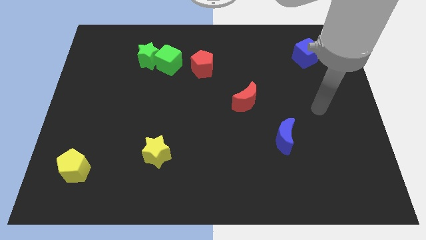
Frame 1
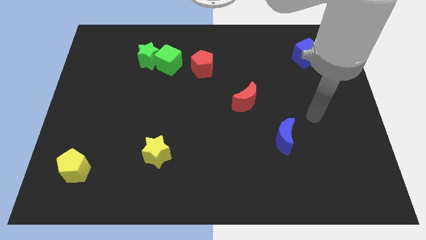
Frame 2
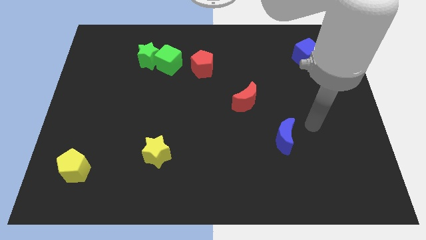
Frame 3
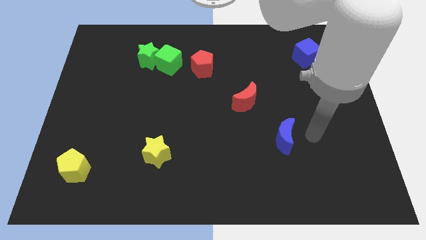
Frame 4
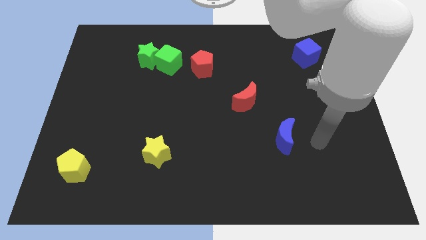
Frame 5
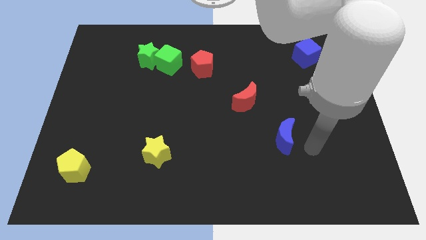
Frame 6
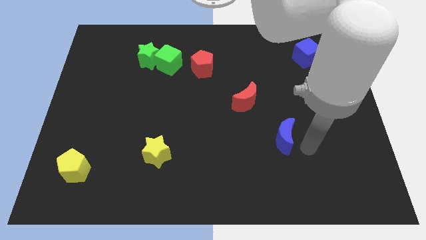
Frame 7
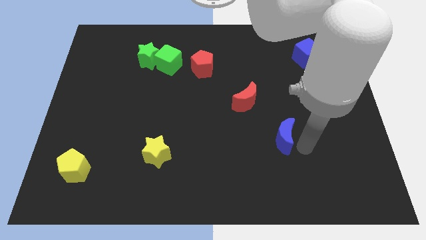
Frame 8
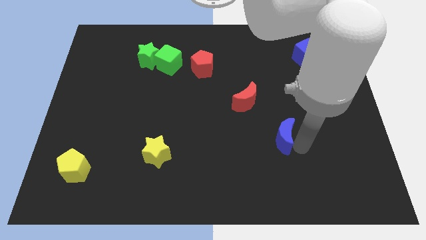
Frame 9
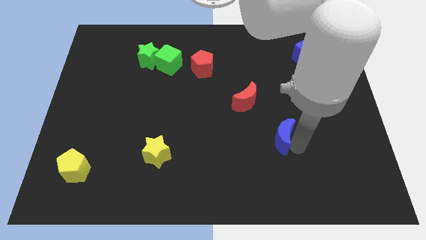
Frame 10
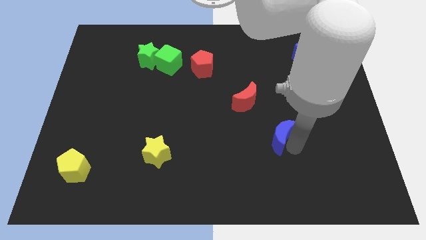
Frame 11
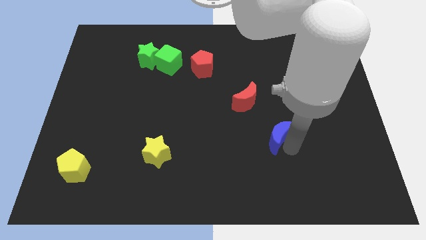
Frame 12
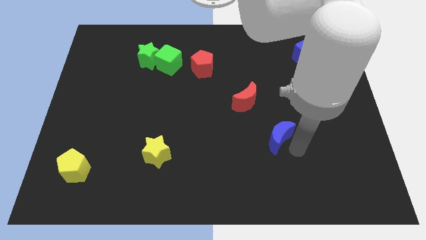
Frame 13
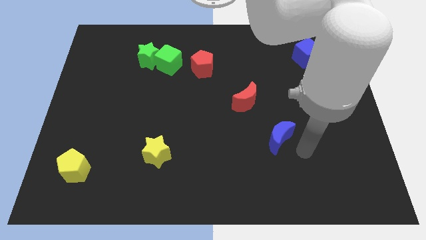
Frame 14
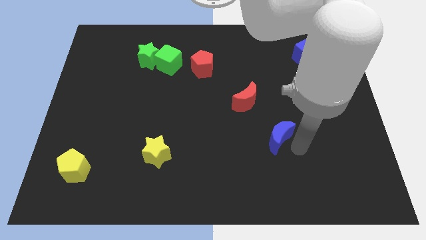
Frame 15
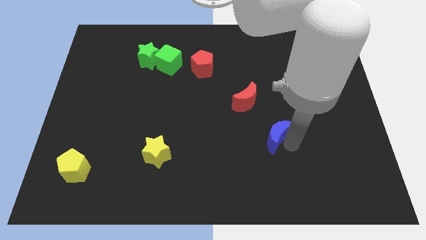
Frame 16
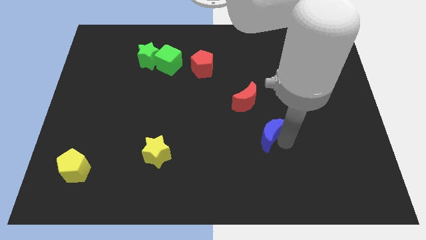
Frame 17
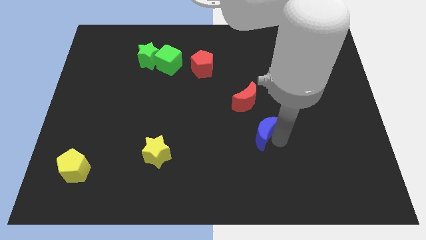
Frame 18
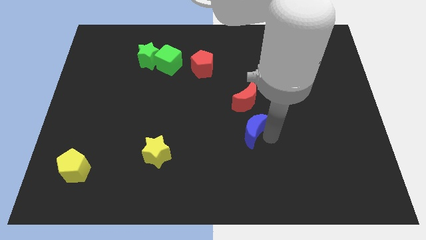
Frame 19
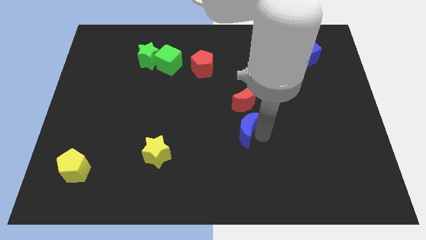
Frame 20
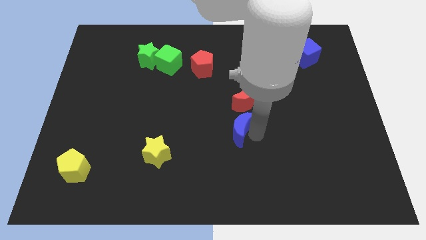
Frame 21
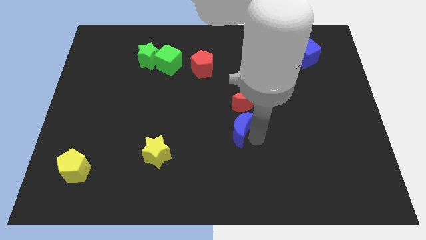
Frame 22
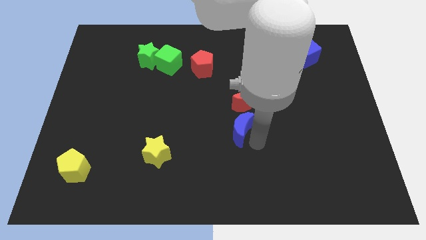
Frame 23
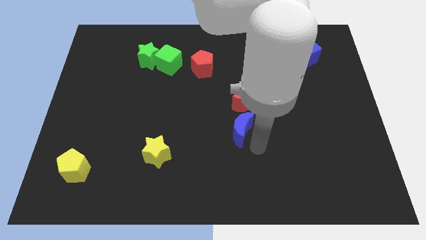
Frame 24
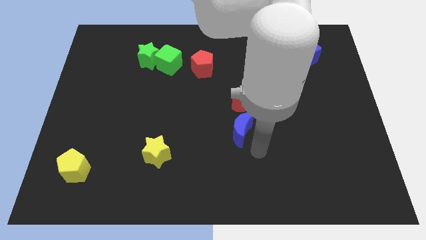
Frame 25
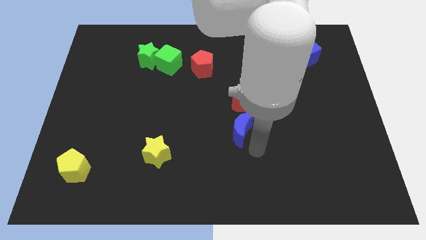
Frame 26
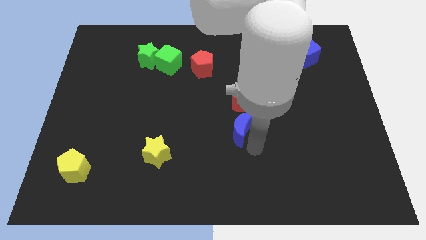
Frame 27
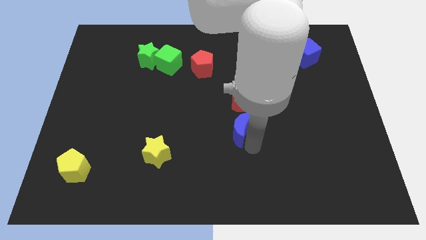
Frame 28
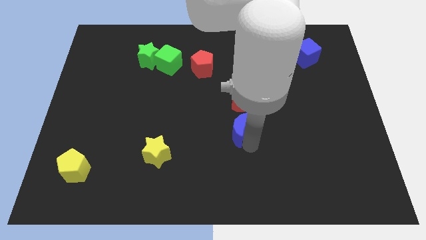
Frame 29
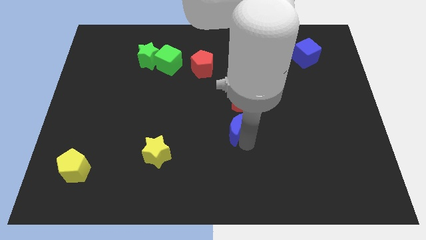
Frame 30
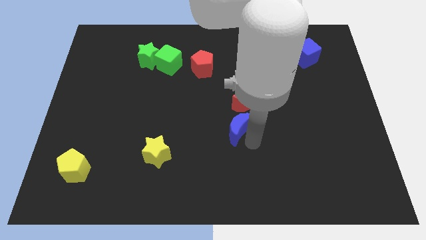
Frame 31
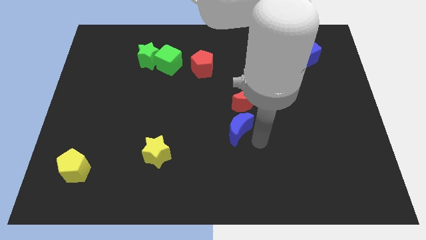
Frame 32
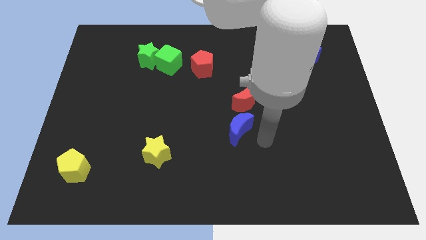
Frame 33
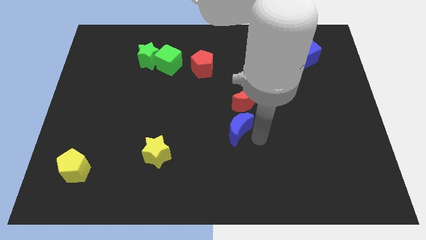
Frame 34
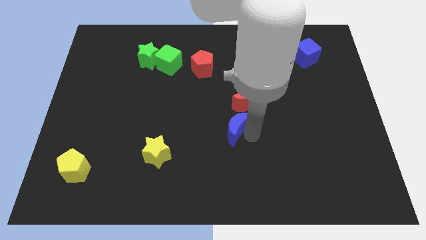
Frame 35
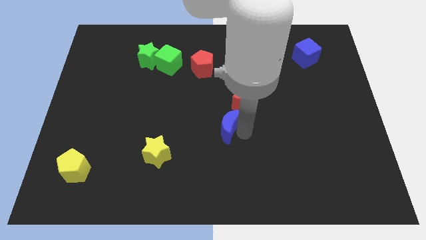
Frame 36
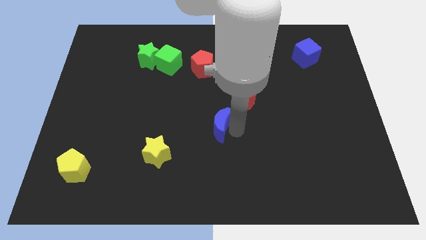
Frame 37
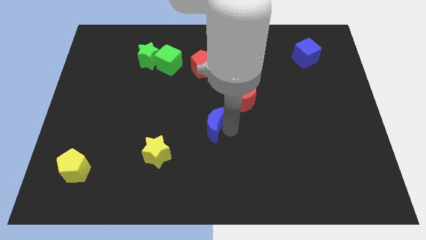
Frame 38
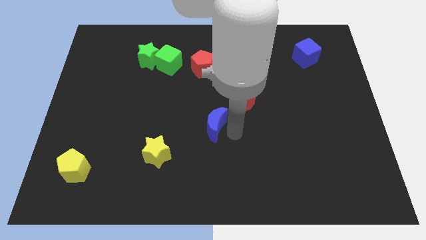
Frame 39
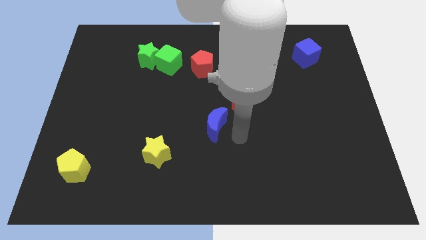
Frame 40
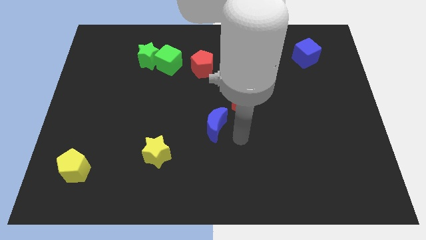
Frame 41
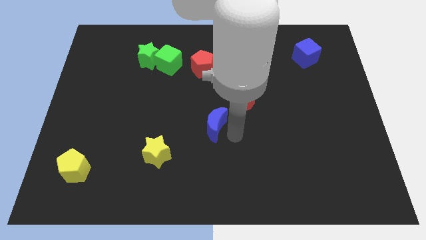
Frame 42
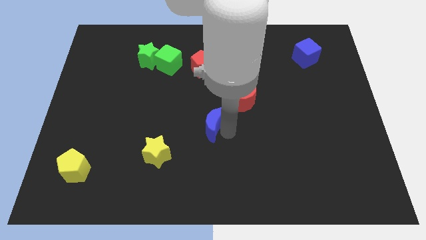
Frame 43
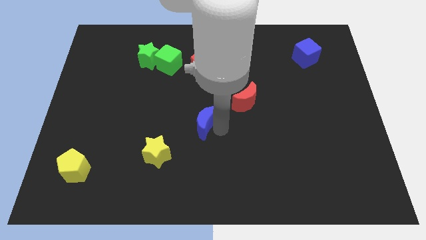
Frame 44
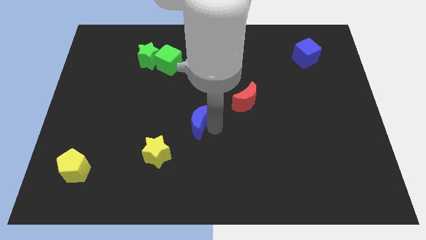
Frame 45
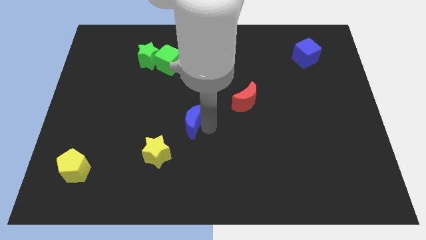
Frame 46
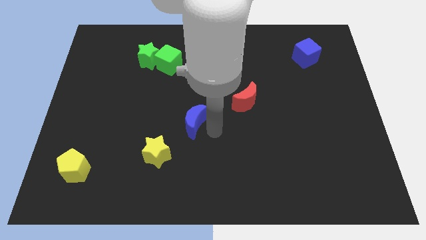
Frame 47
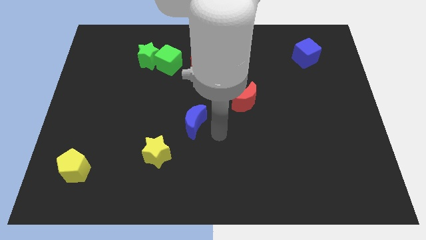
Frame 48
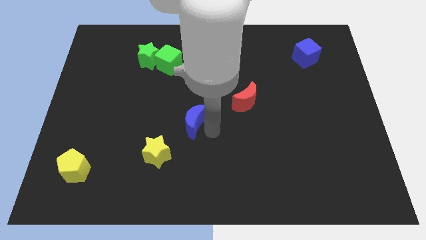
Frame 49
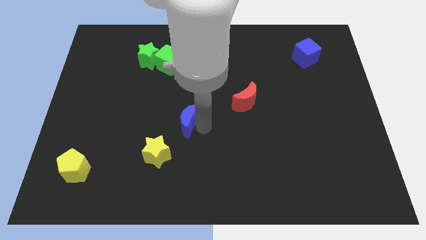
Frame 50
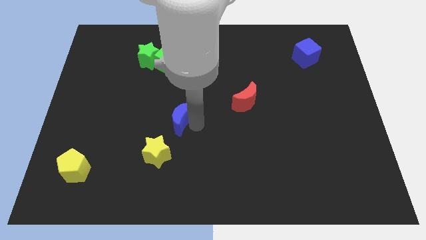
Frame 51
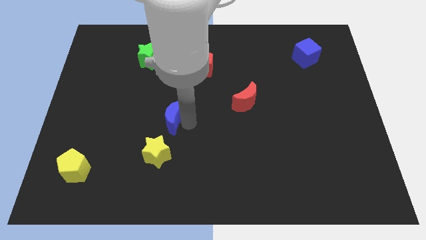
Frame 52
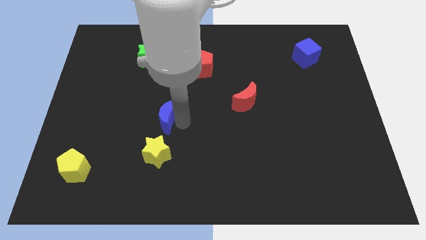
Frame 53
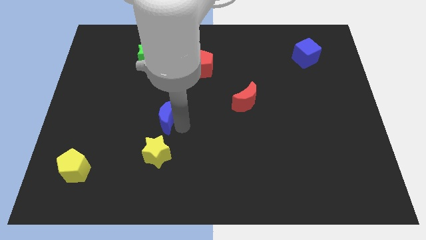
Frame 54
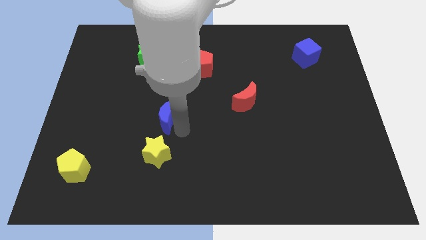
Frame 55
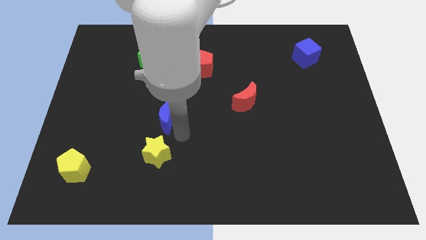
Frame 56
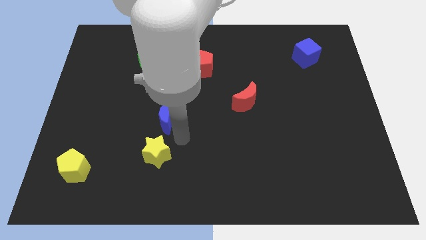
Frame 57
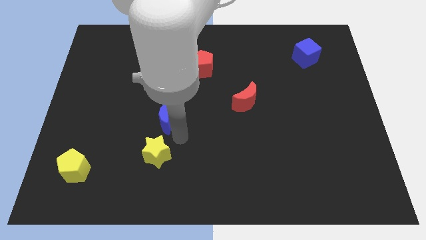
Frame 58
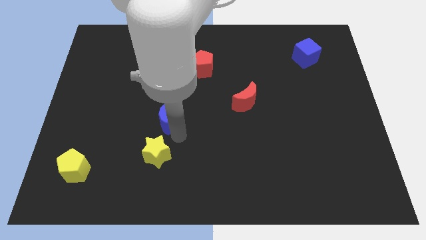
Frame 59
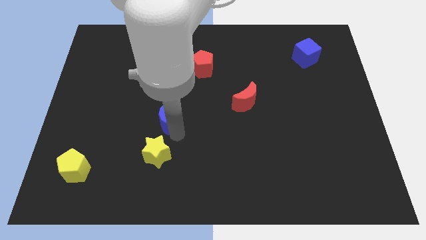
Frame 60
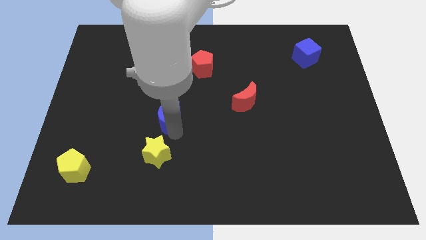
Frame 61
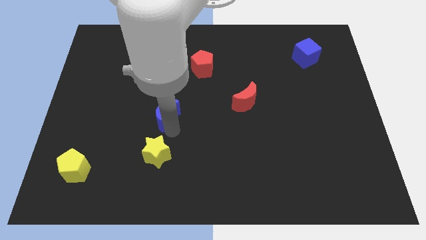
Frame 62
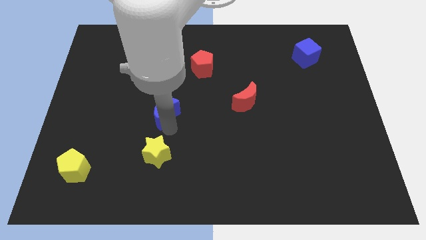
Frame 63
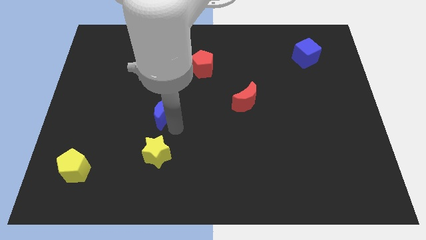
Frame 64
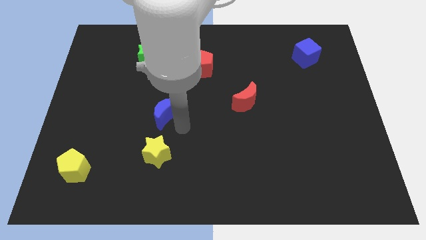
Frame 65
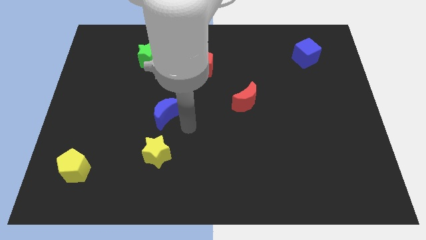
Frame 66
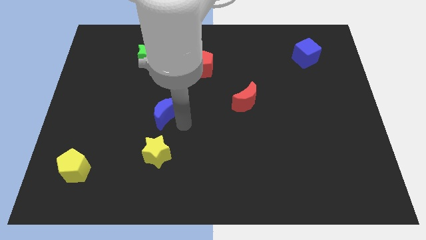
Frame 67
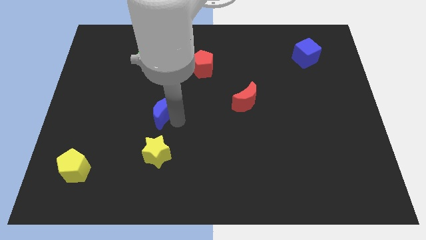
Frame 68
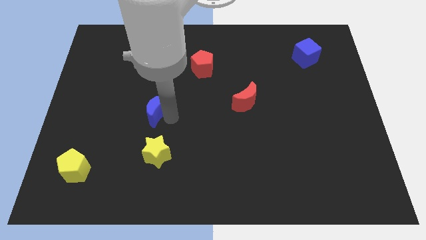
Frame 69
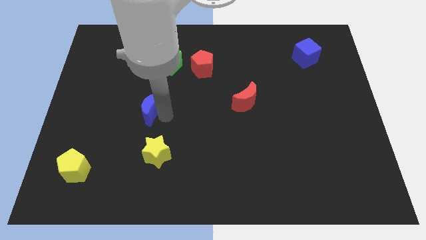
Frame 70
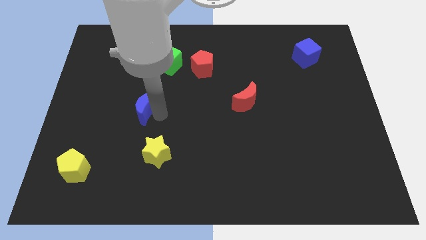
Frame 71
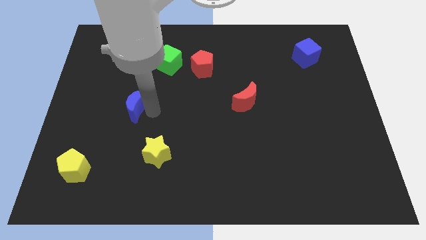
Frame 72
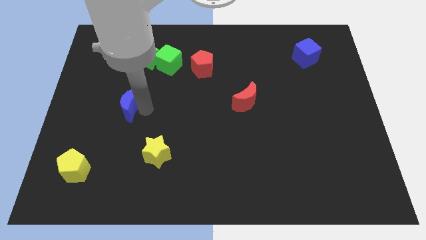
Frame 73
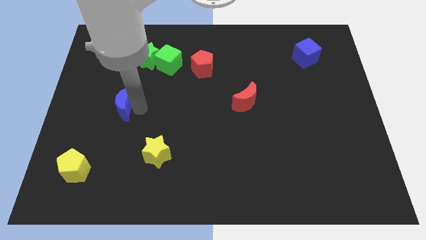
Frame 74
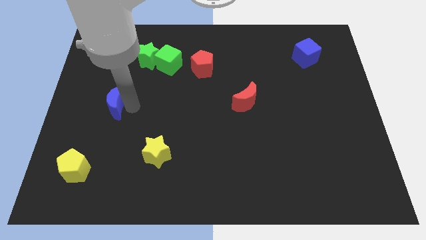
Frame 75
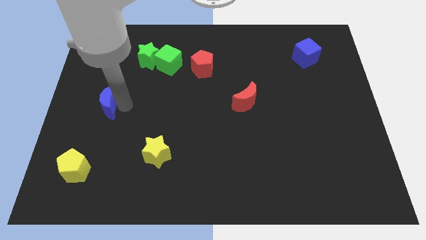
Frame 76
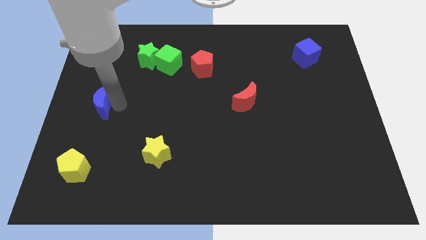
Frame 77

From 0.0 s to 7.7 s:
put the blue moon to the center left
